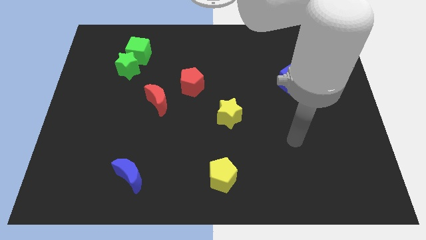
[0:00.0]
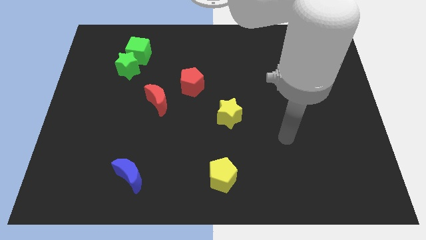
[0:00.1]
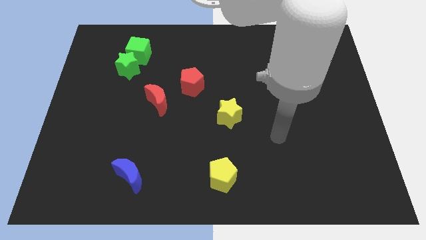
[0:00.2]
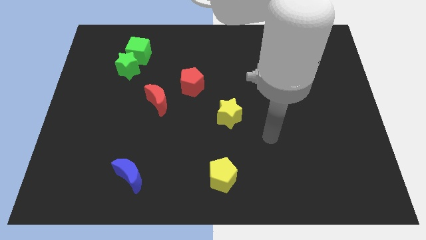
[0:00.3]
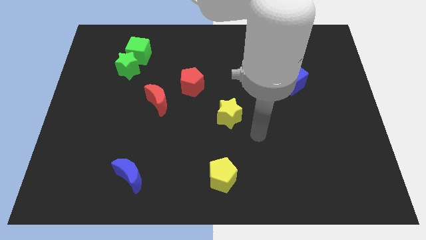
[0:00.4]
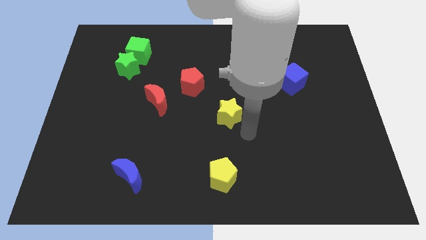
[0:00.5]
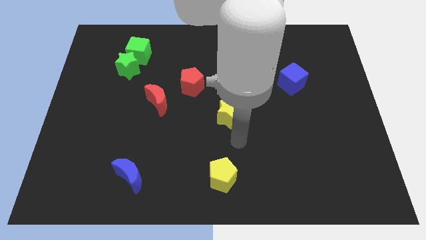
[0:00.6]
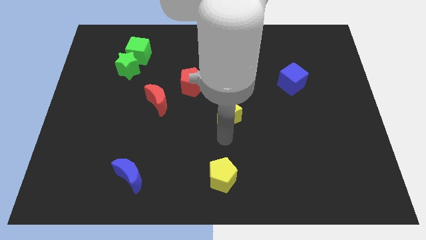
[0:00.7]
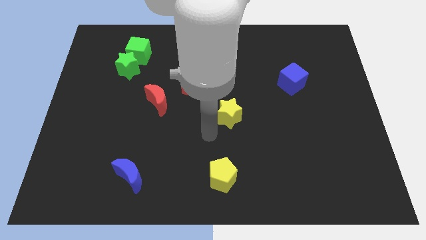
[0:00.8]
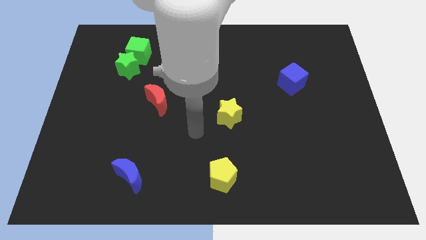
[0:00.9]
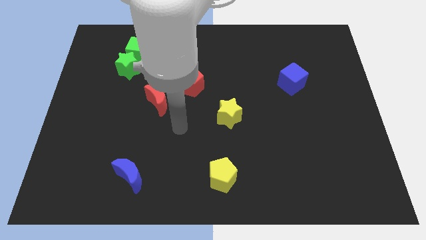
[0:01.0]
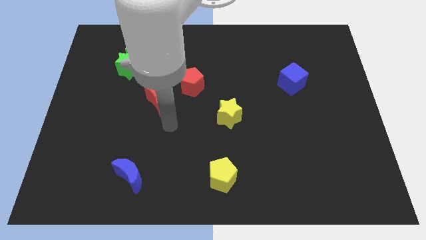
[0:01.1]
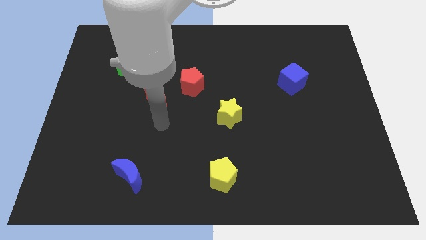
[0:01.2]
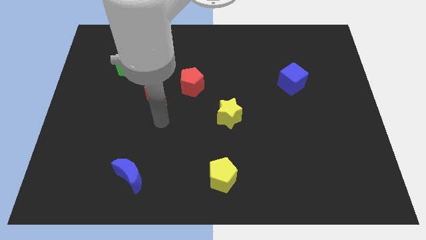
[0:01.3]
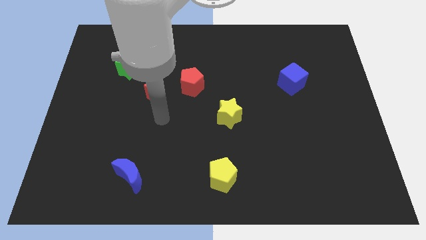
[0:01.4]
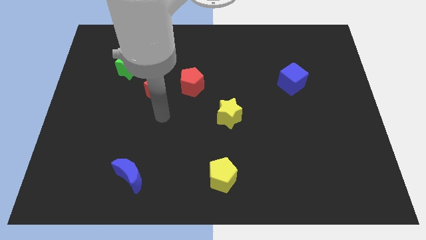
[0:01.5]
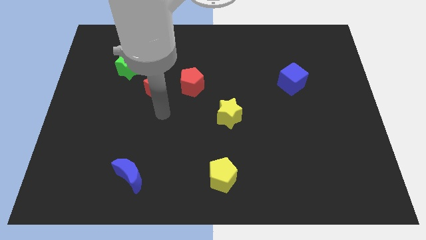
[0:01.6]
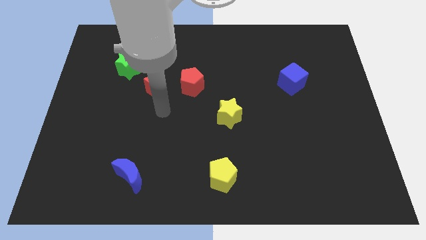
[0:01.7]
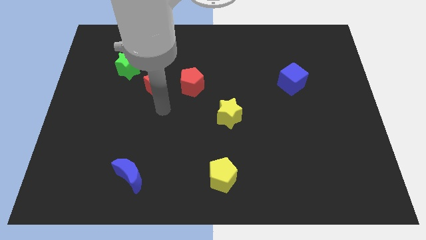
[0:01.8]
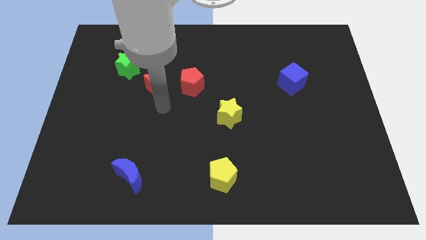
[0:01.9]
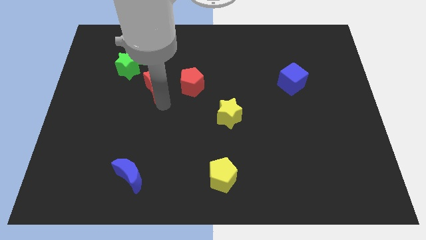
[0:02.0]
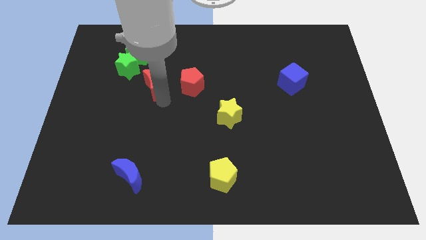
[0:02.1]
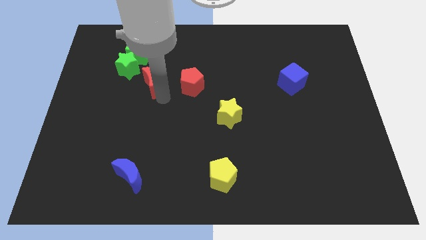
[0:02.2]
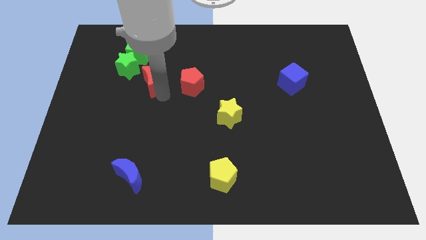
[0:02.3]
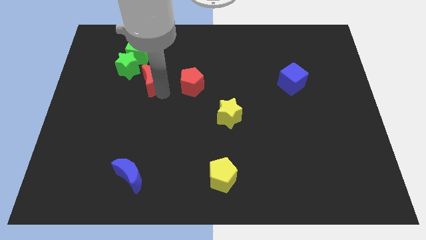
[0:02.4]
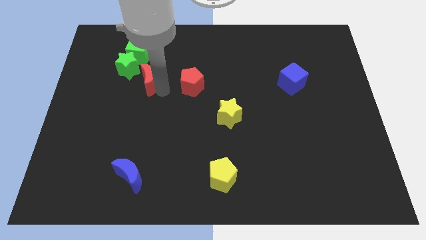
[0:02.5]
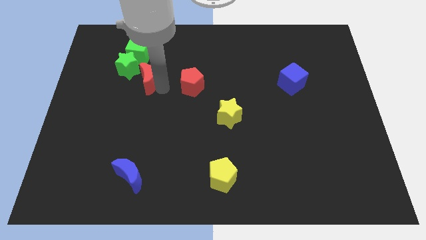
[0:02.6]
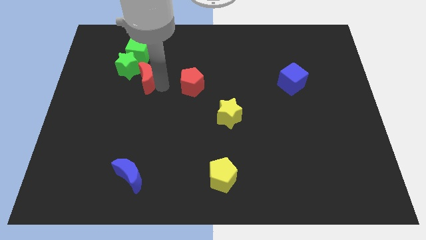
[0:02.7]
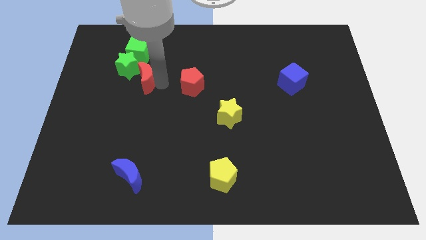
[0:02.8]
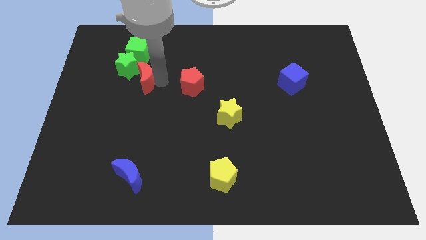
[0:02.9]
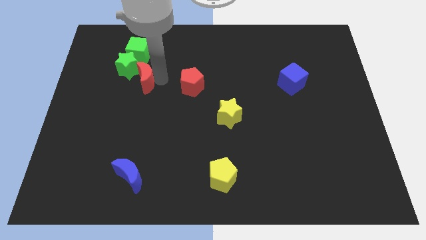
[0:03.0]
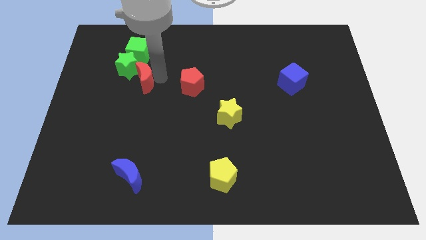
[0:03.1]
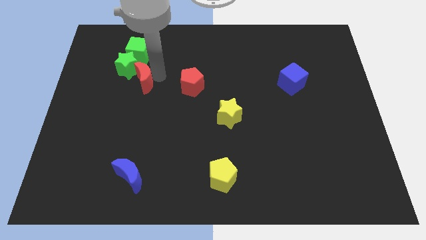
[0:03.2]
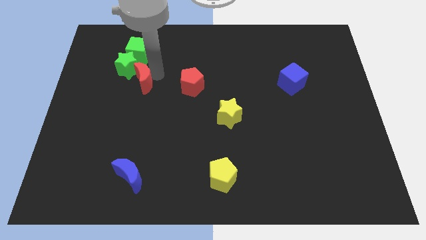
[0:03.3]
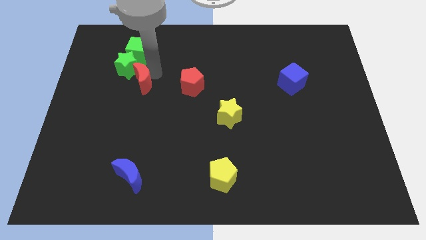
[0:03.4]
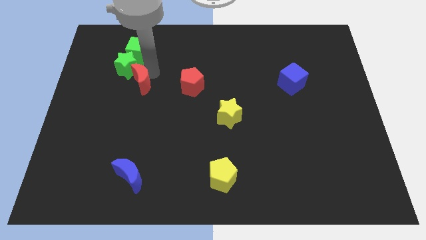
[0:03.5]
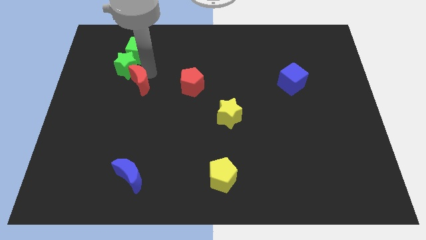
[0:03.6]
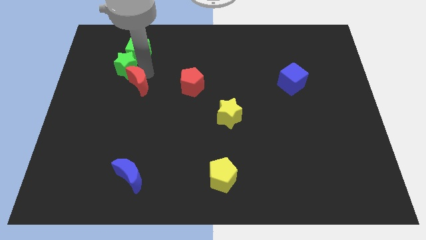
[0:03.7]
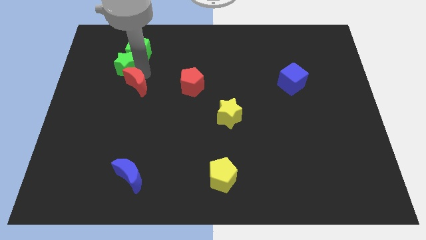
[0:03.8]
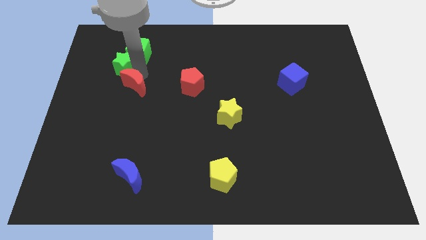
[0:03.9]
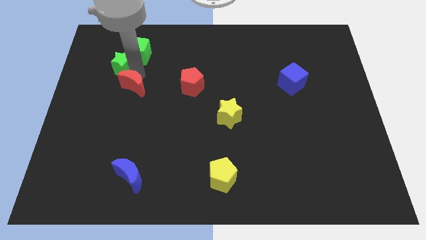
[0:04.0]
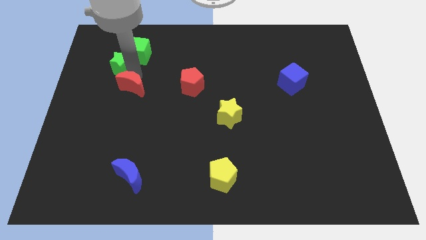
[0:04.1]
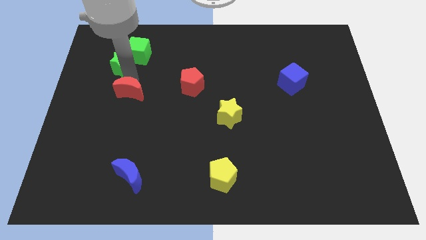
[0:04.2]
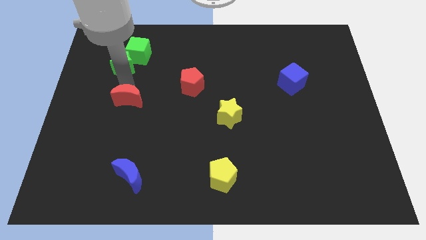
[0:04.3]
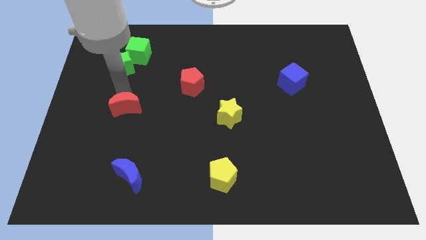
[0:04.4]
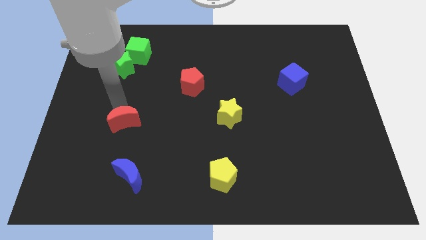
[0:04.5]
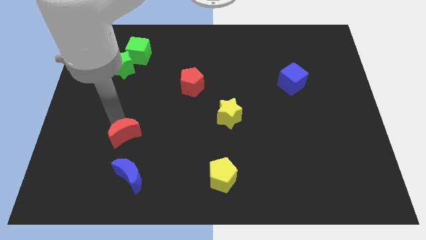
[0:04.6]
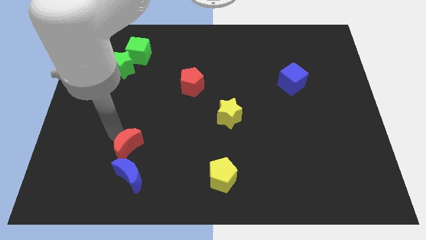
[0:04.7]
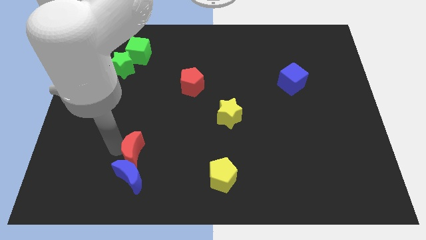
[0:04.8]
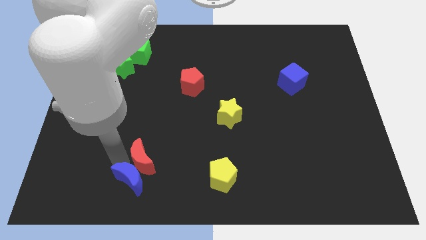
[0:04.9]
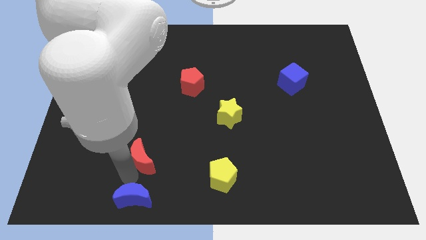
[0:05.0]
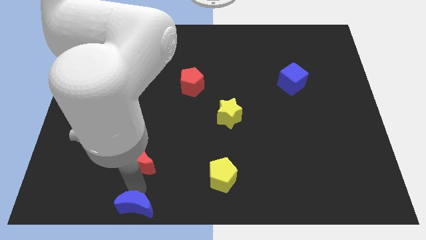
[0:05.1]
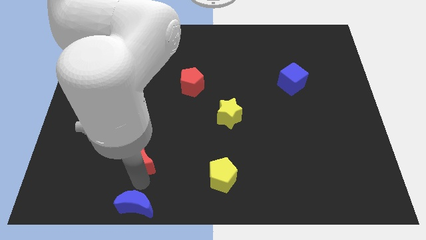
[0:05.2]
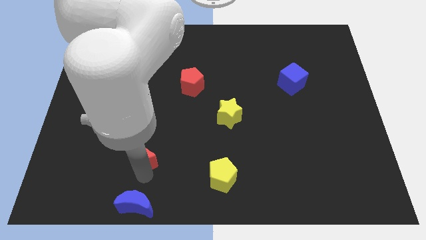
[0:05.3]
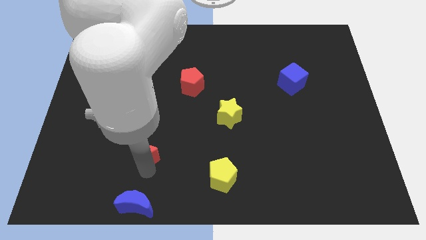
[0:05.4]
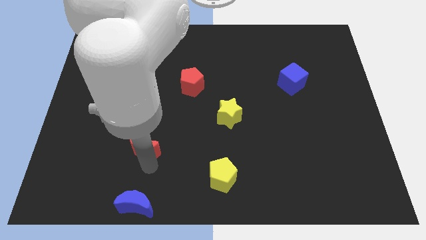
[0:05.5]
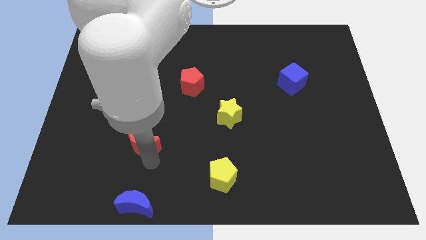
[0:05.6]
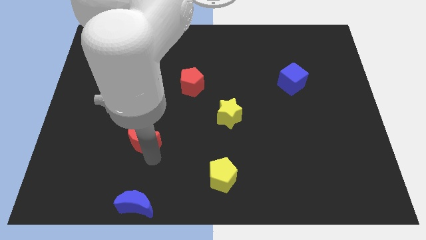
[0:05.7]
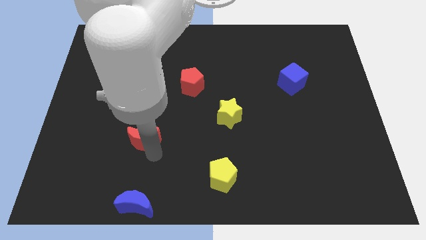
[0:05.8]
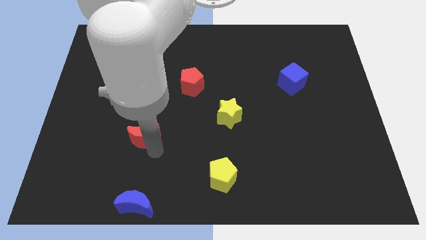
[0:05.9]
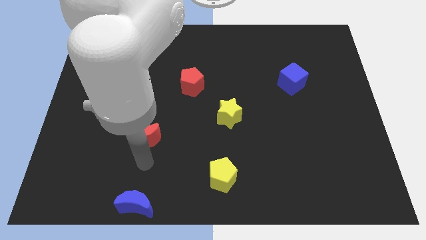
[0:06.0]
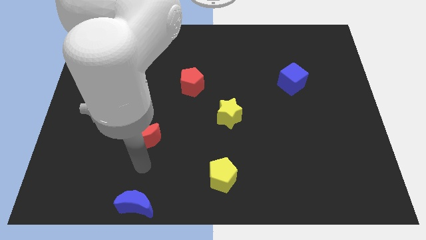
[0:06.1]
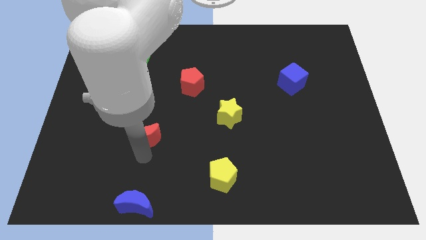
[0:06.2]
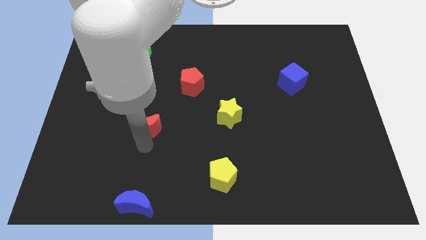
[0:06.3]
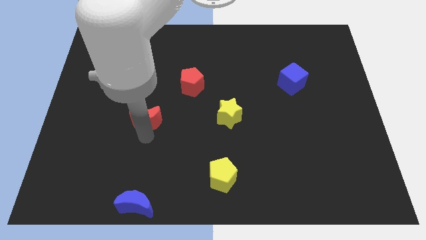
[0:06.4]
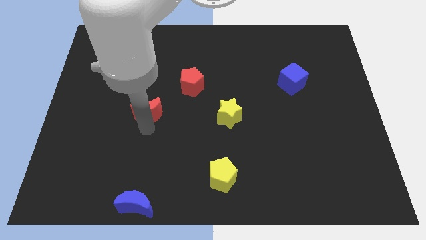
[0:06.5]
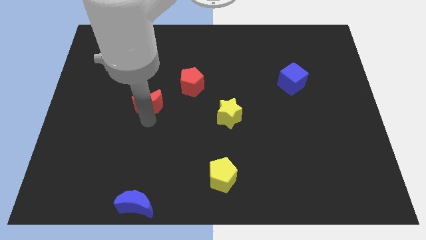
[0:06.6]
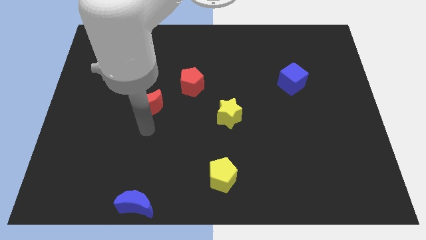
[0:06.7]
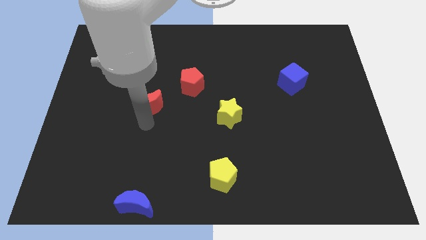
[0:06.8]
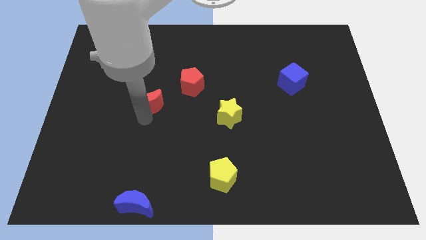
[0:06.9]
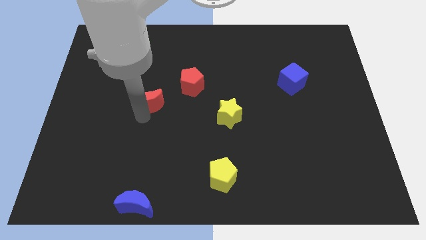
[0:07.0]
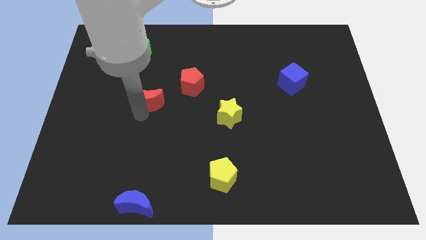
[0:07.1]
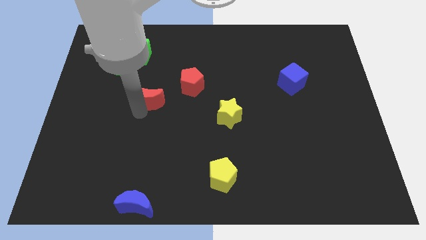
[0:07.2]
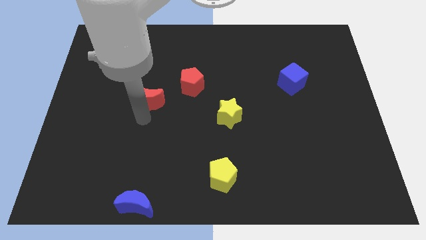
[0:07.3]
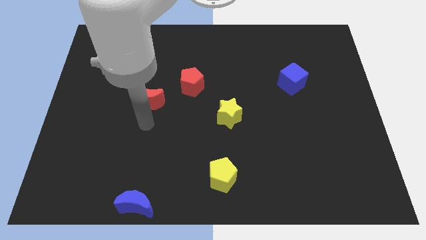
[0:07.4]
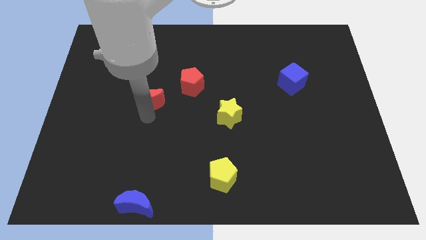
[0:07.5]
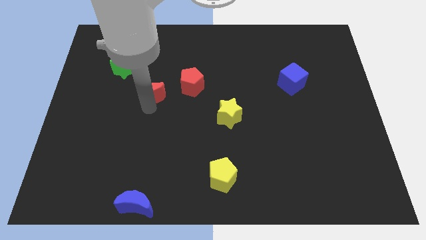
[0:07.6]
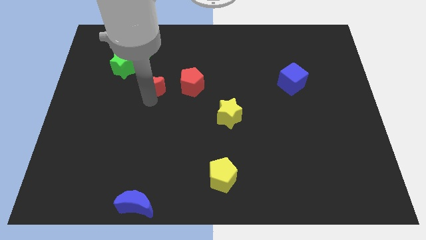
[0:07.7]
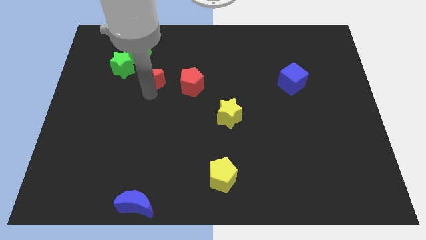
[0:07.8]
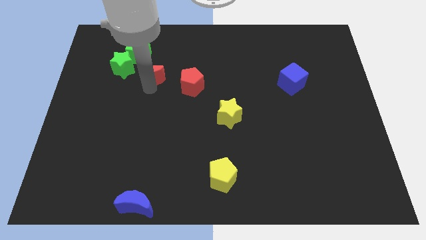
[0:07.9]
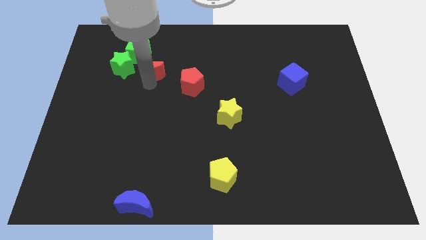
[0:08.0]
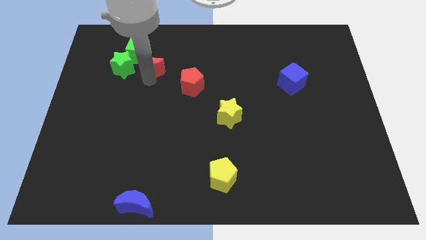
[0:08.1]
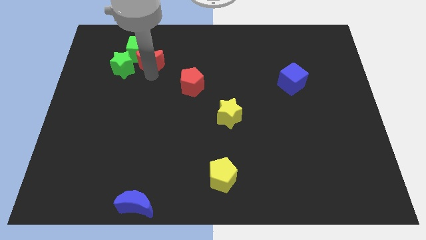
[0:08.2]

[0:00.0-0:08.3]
push the red moon to the top right side of the green star
